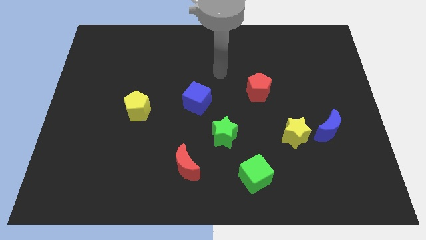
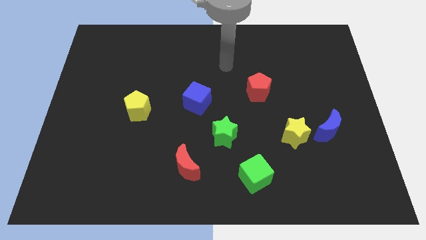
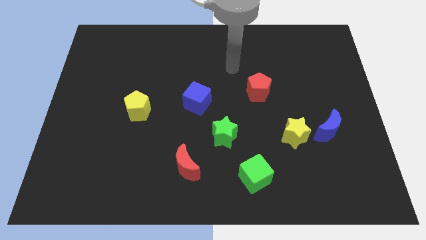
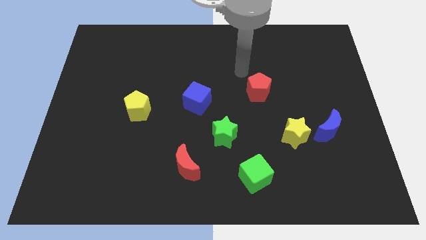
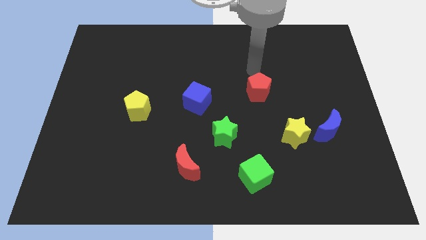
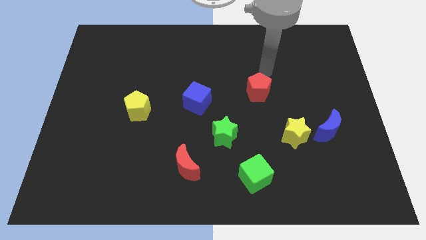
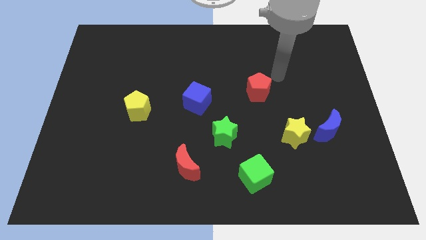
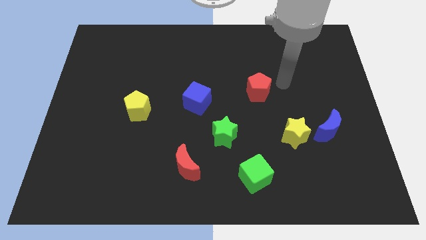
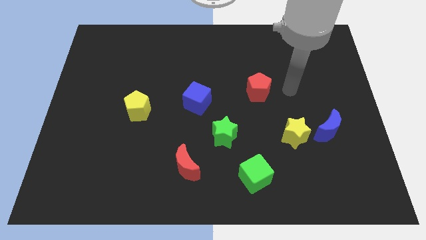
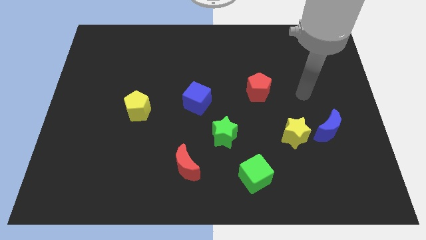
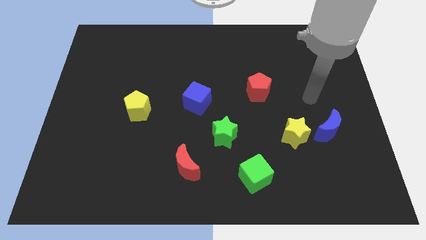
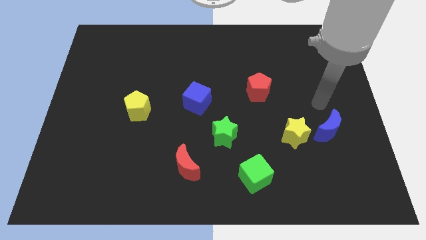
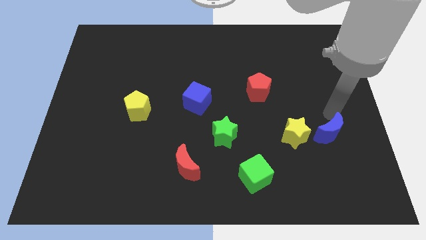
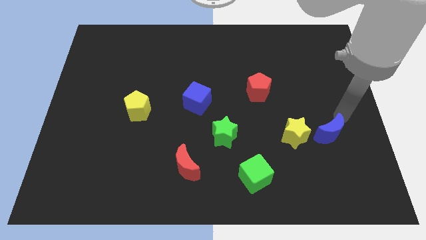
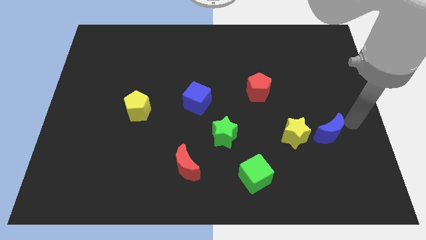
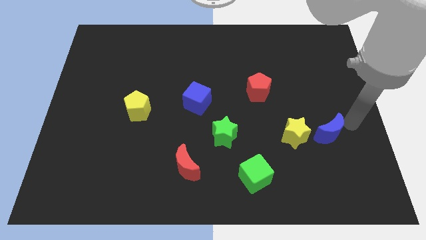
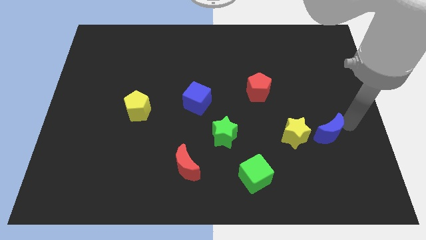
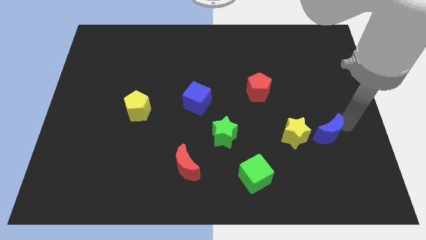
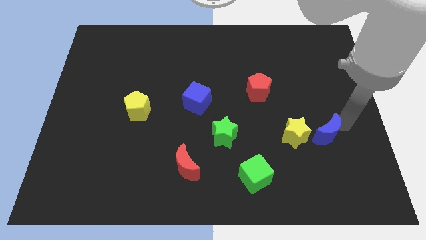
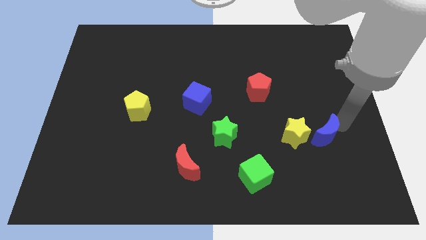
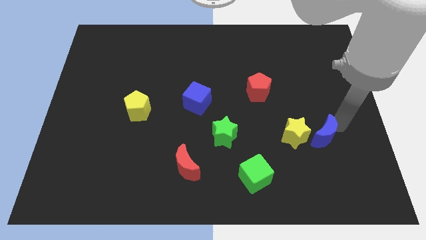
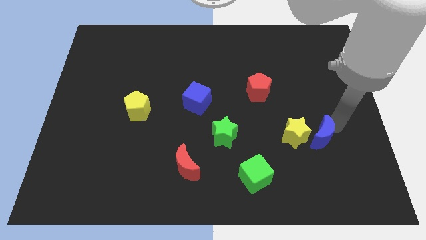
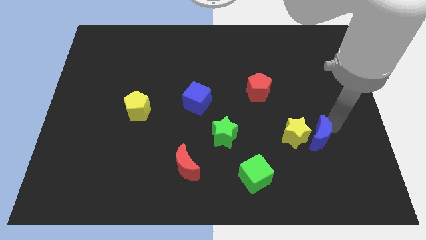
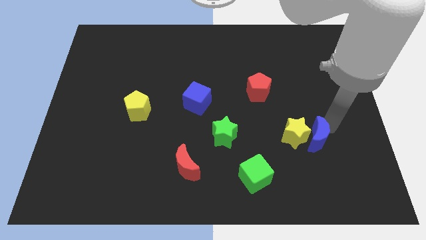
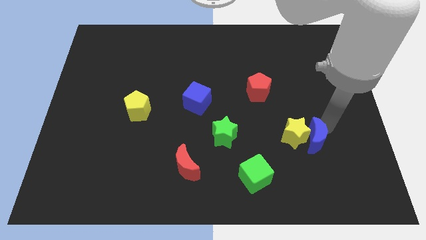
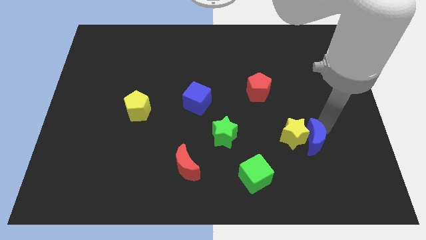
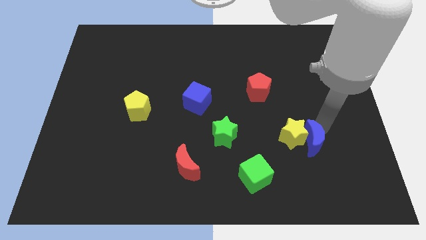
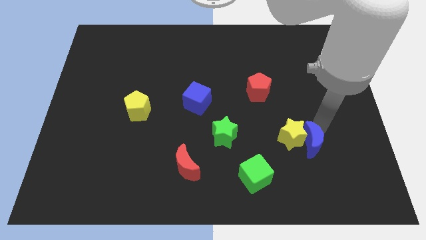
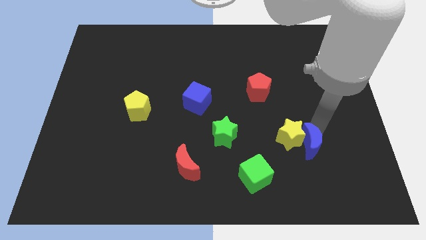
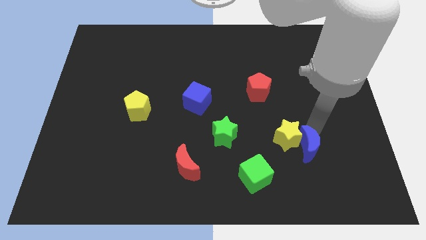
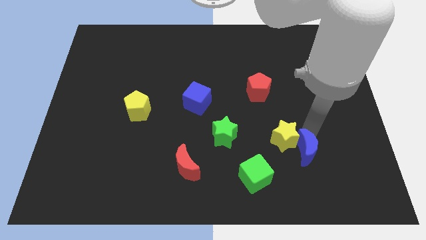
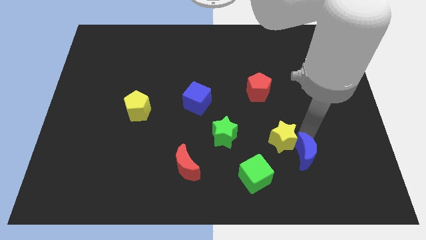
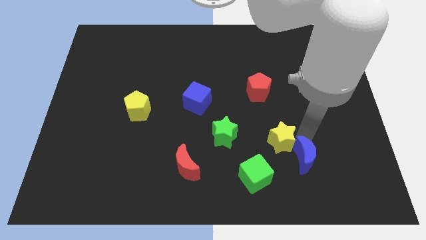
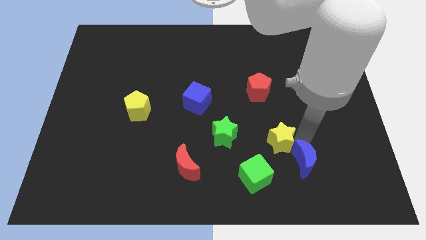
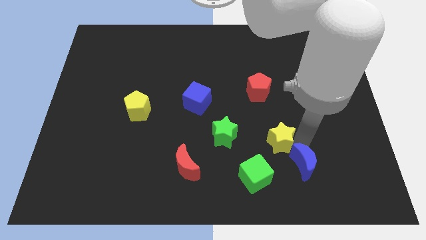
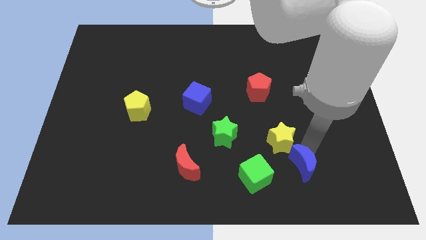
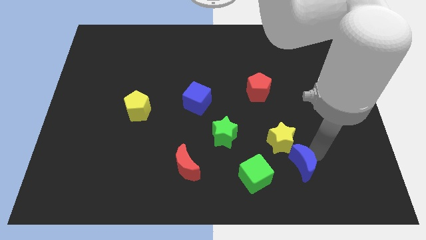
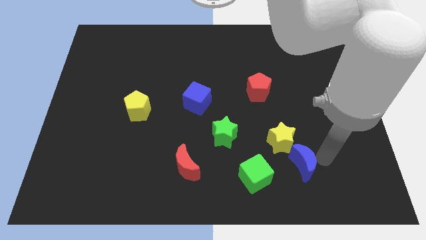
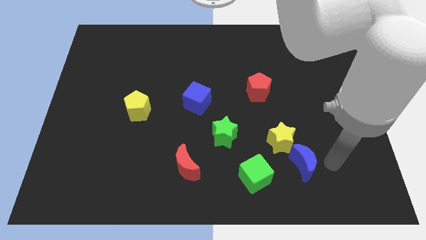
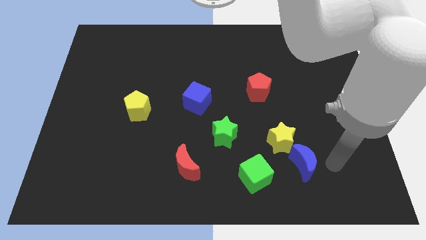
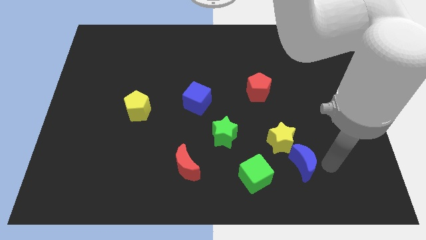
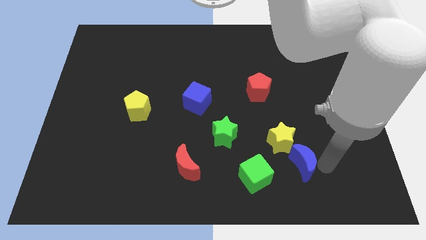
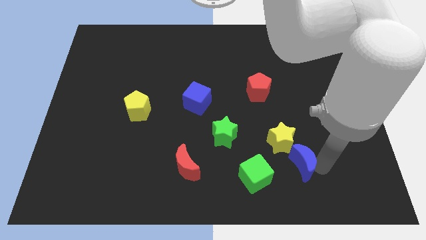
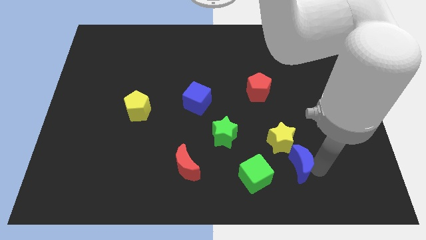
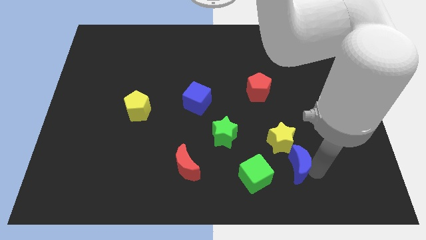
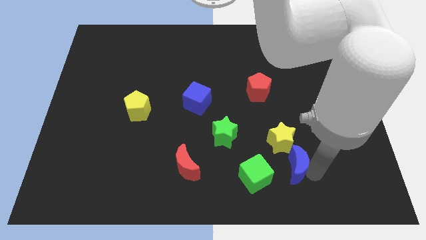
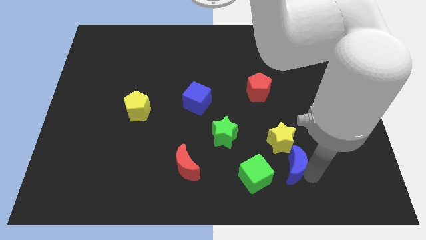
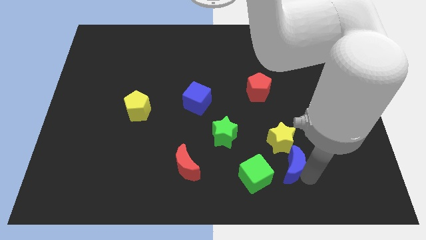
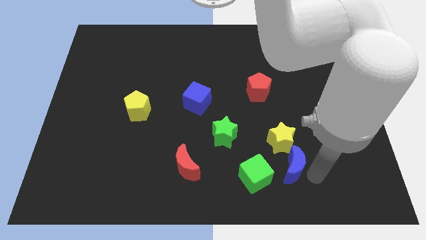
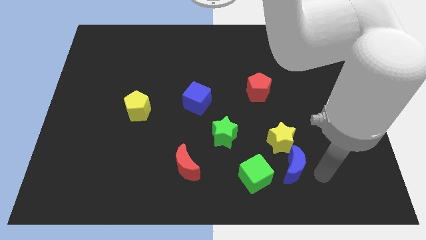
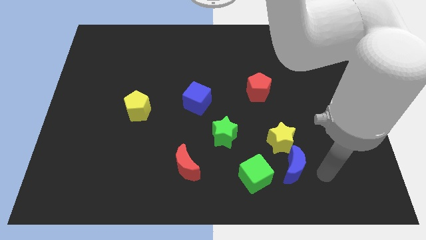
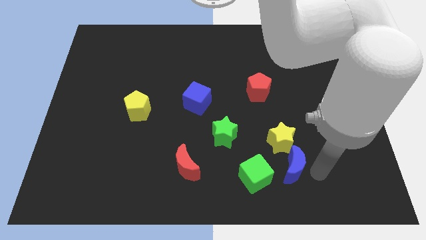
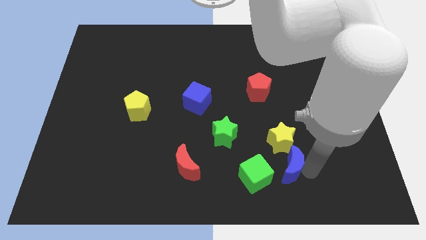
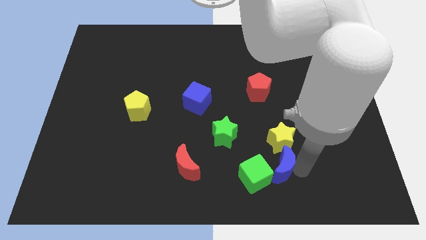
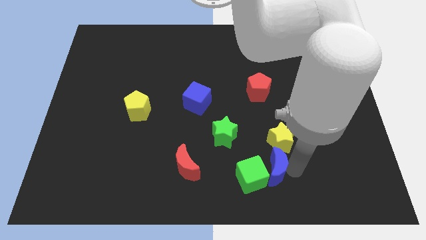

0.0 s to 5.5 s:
move the blue moon close to the green cube

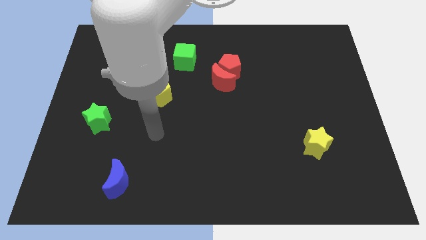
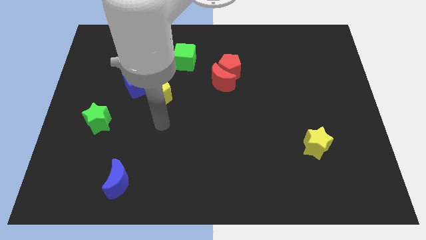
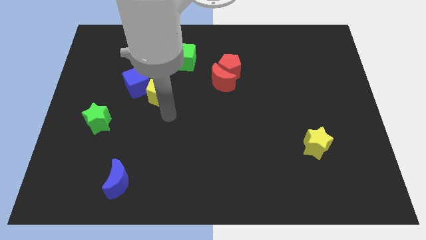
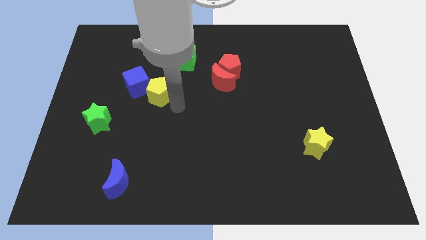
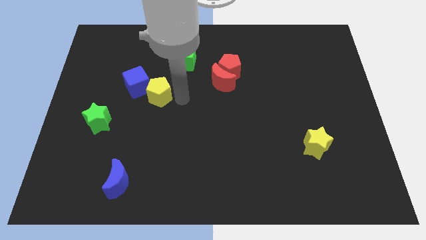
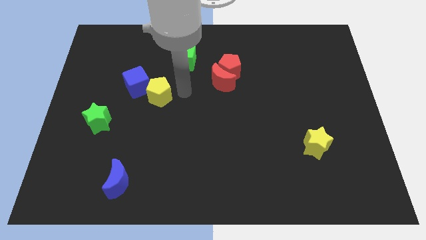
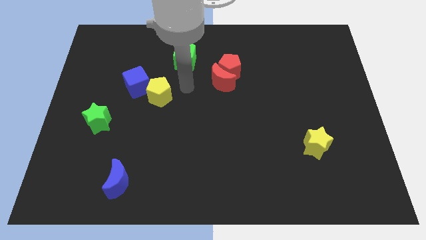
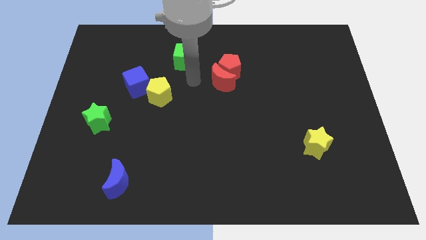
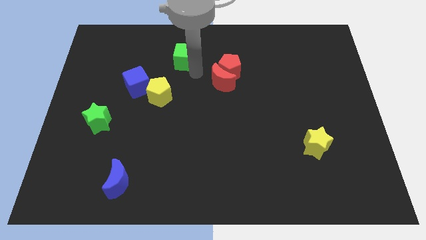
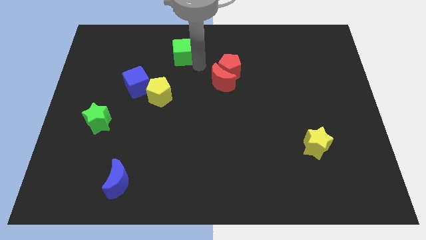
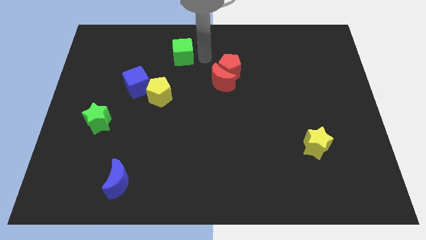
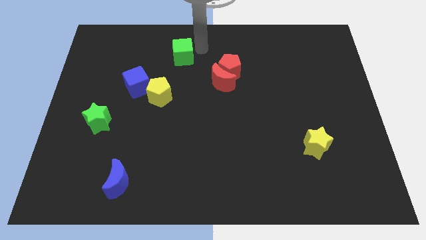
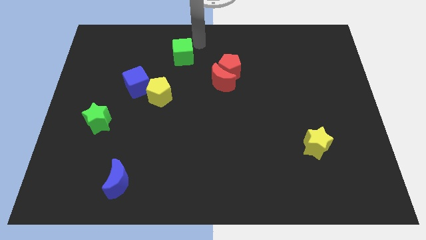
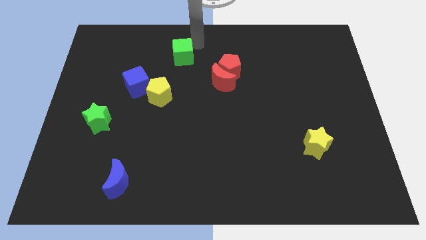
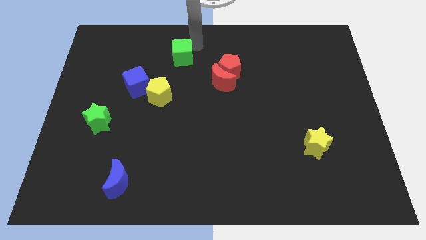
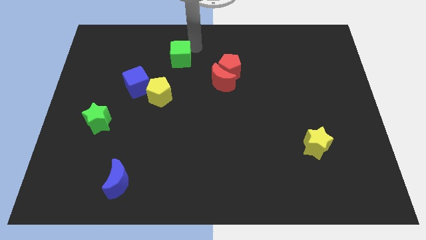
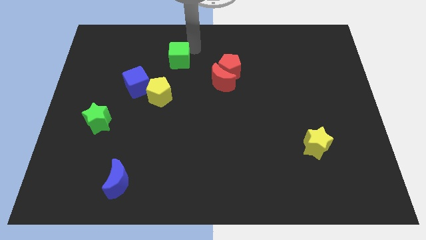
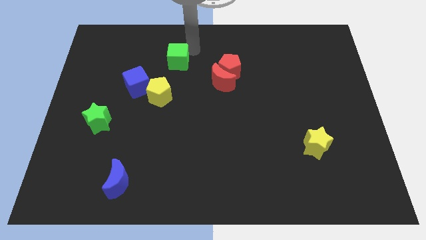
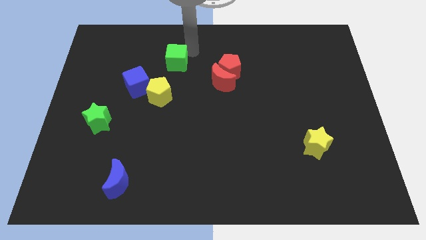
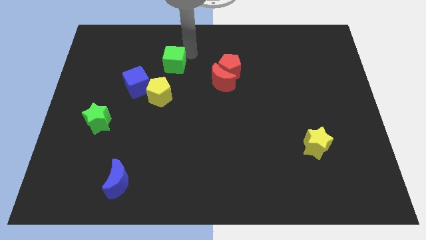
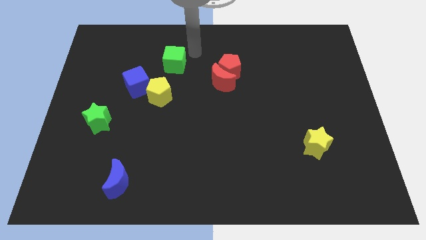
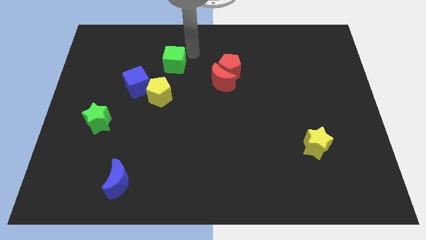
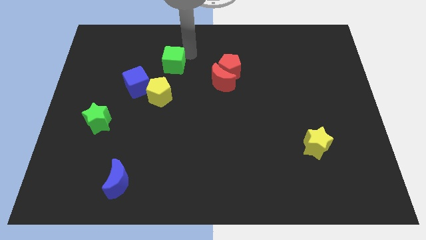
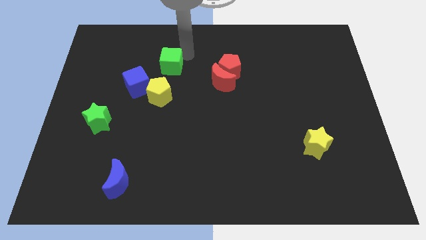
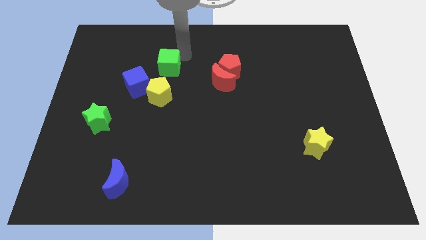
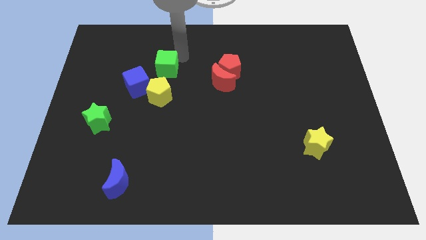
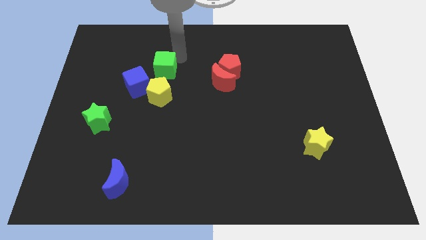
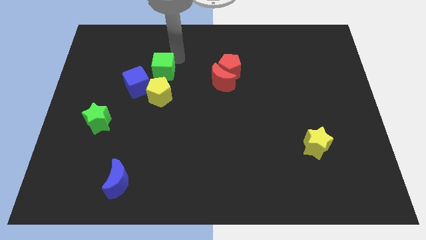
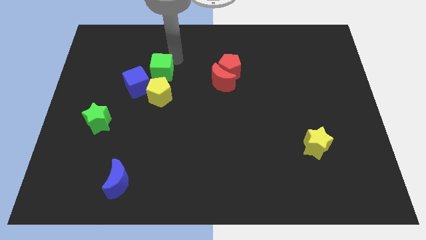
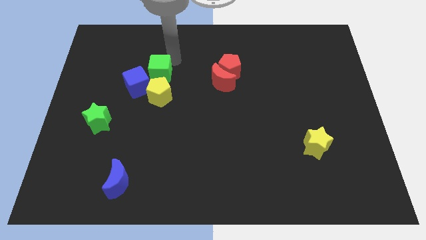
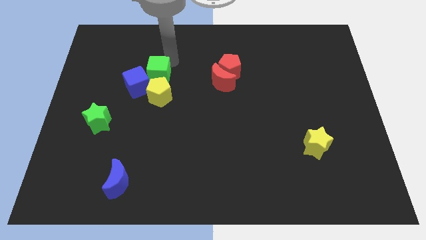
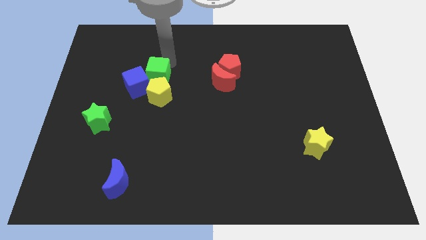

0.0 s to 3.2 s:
move the green cube close to the blue cube
